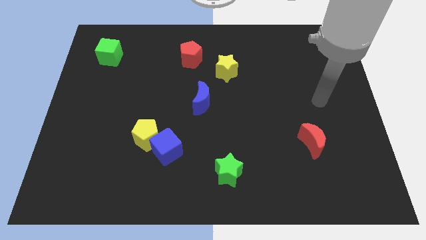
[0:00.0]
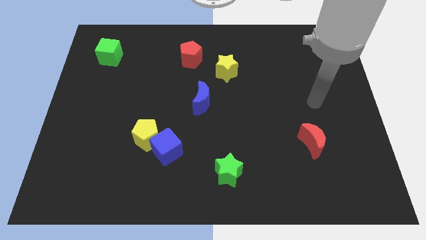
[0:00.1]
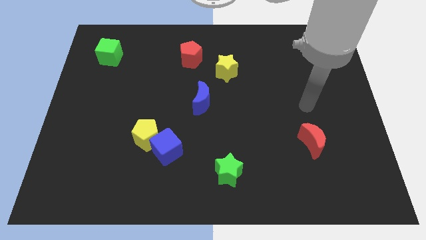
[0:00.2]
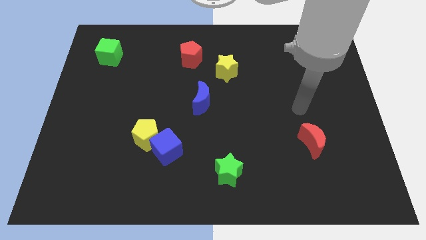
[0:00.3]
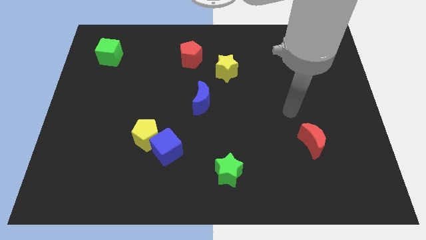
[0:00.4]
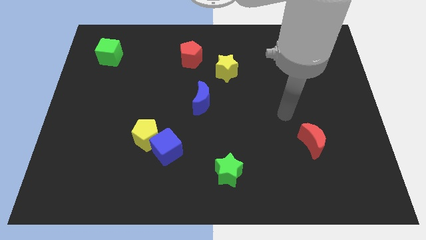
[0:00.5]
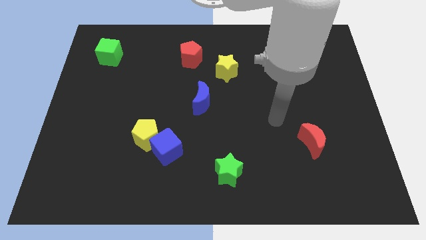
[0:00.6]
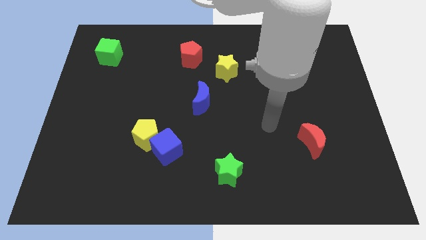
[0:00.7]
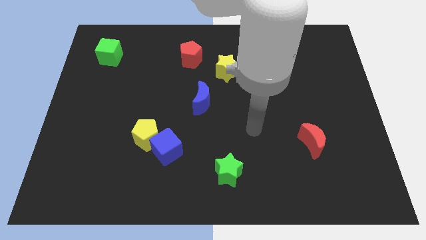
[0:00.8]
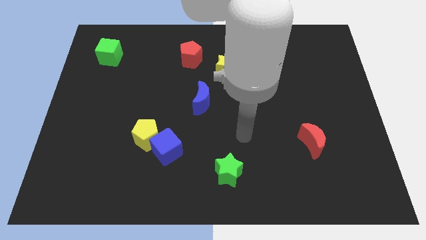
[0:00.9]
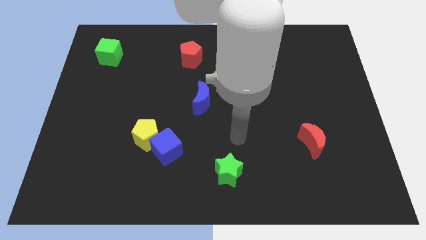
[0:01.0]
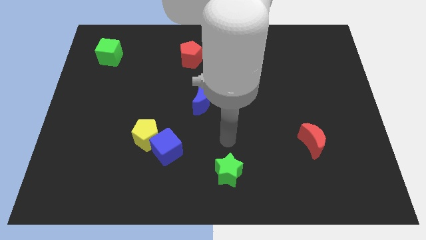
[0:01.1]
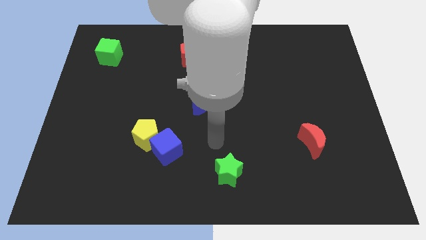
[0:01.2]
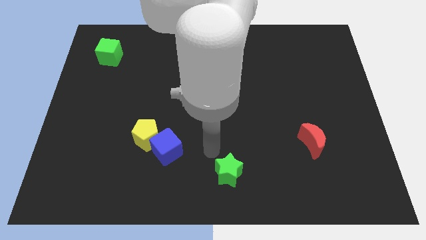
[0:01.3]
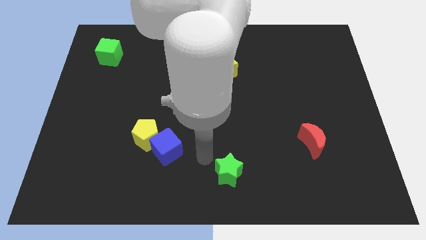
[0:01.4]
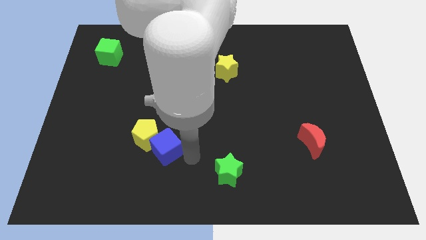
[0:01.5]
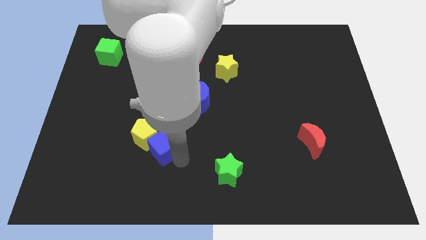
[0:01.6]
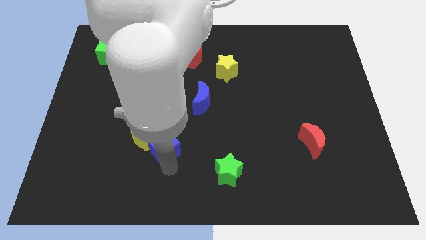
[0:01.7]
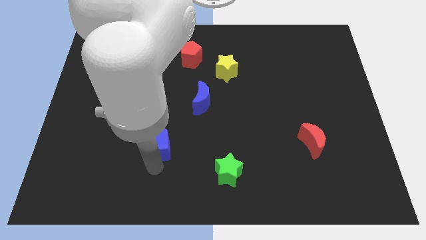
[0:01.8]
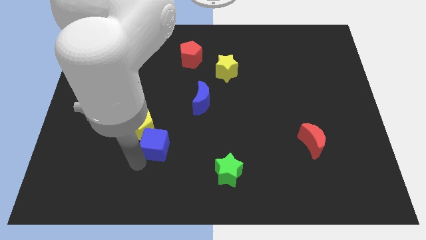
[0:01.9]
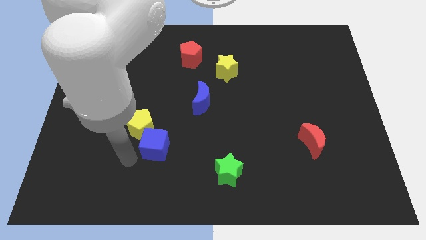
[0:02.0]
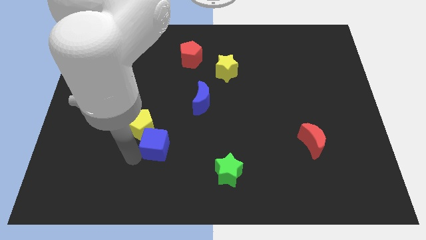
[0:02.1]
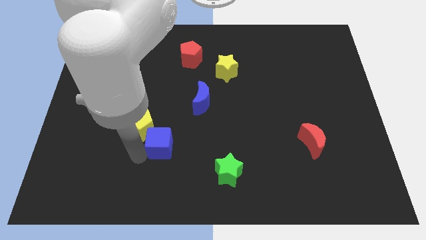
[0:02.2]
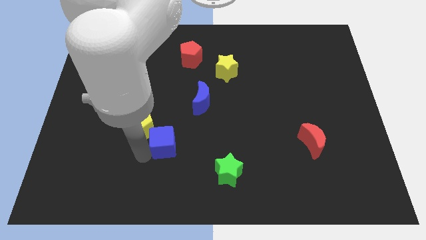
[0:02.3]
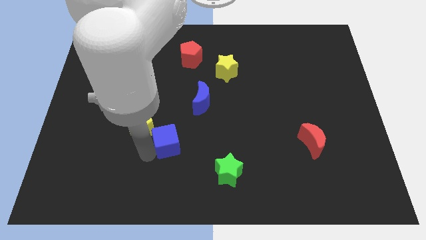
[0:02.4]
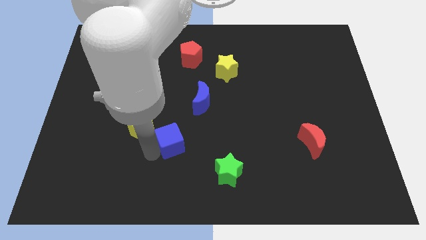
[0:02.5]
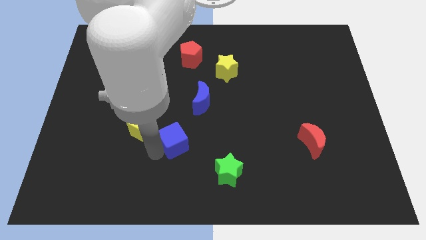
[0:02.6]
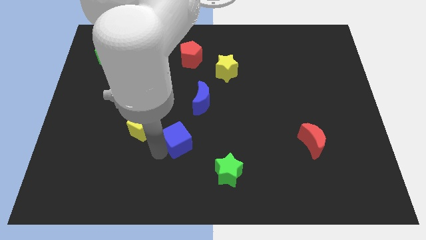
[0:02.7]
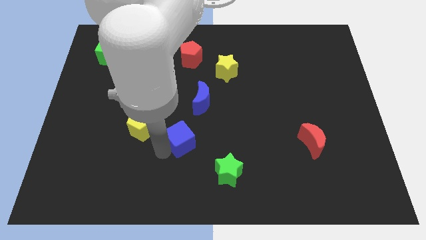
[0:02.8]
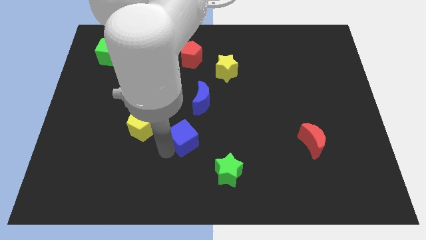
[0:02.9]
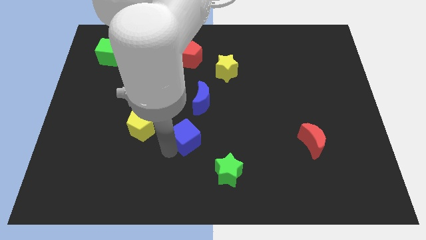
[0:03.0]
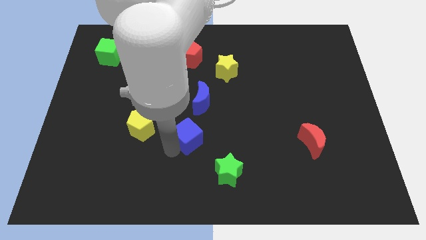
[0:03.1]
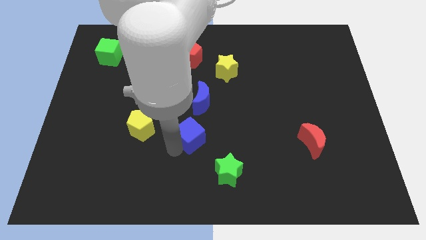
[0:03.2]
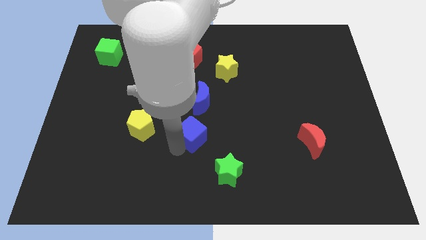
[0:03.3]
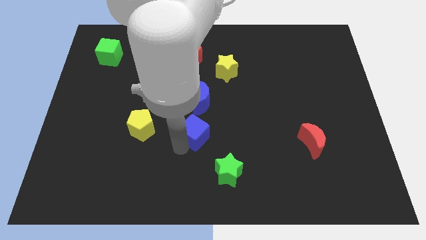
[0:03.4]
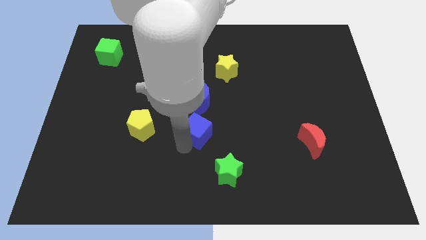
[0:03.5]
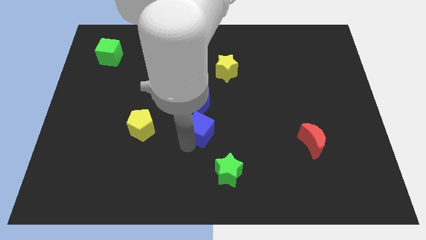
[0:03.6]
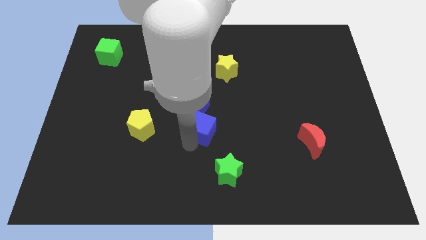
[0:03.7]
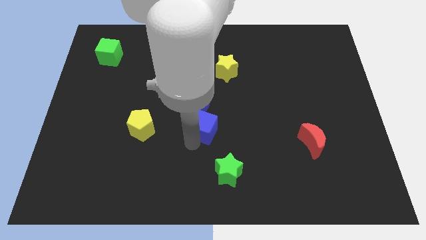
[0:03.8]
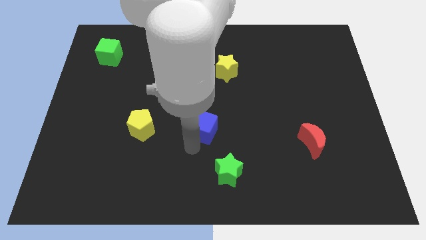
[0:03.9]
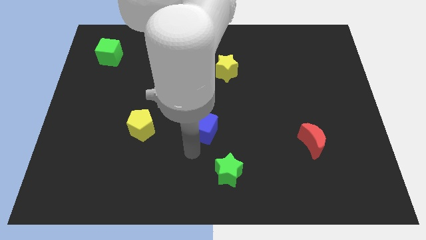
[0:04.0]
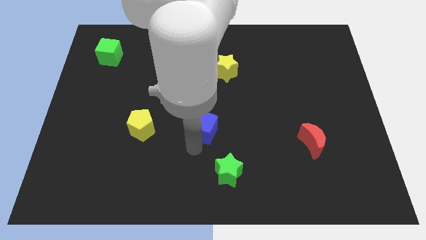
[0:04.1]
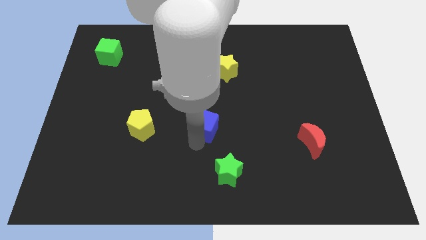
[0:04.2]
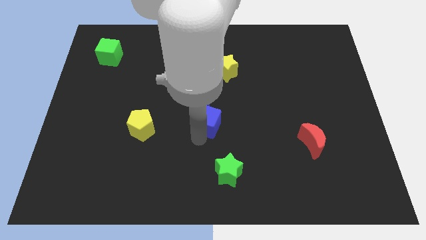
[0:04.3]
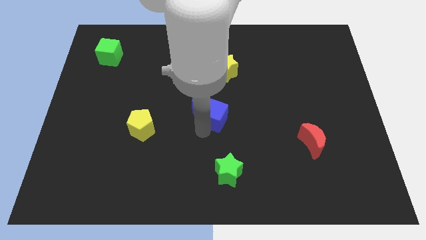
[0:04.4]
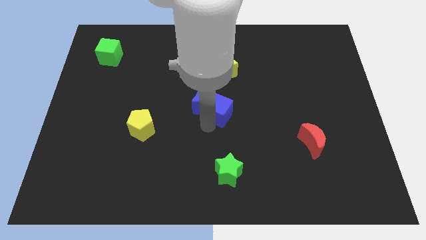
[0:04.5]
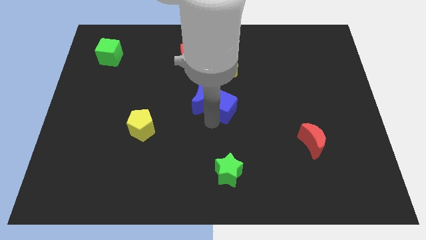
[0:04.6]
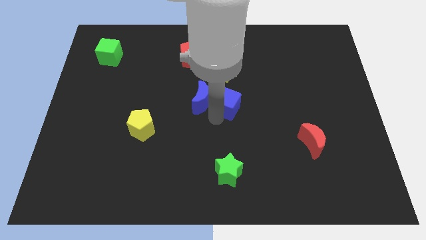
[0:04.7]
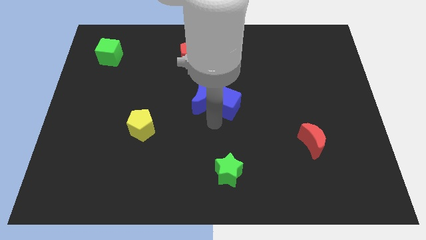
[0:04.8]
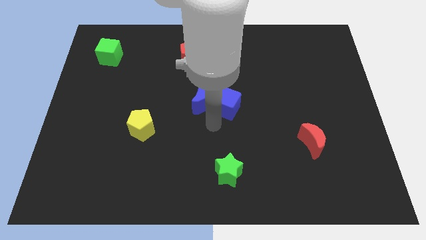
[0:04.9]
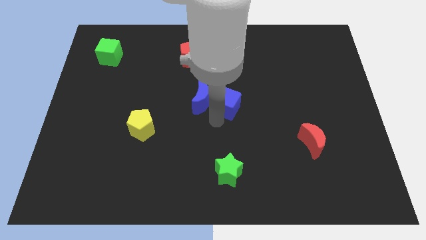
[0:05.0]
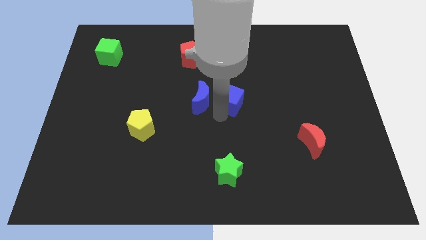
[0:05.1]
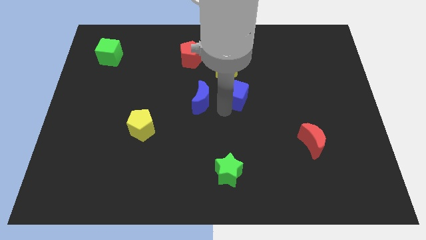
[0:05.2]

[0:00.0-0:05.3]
move the blue cube upwards and then right

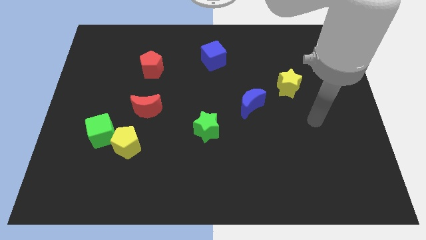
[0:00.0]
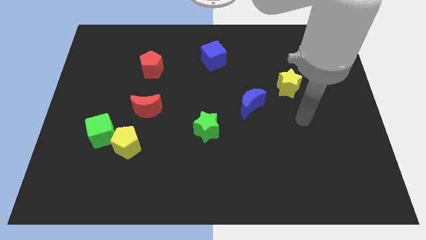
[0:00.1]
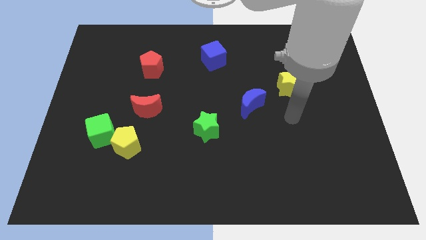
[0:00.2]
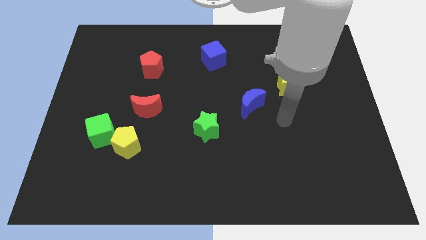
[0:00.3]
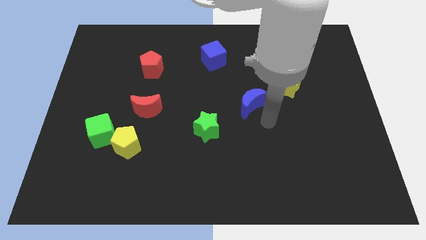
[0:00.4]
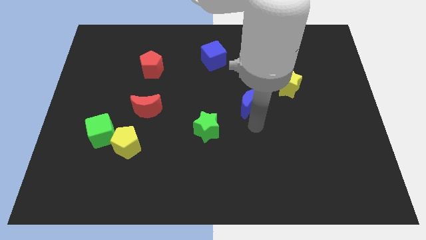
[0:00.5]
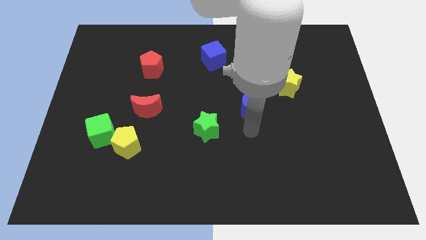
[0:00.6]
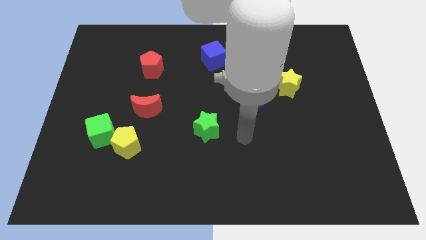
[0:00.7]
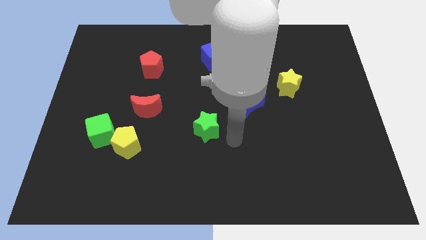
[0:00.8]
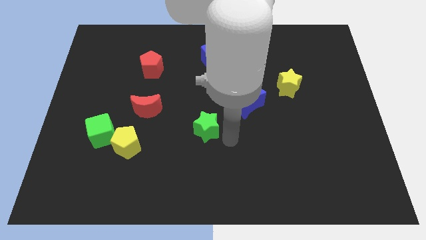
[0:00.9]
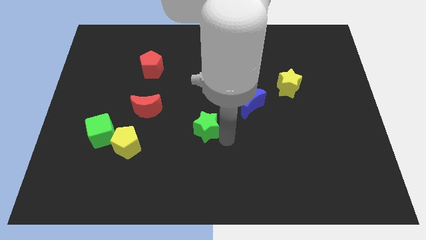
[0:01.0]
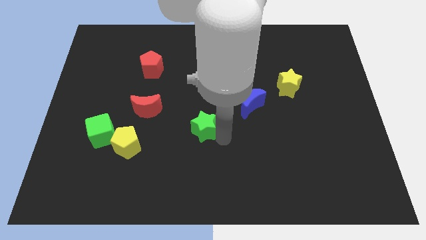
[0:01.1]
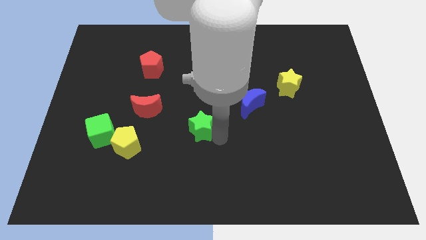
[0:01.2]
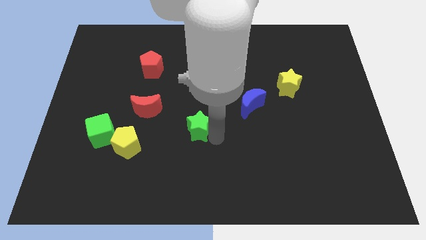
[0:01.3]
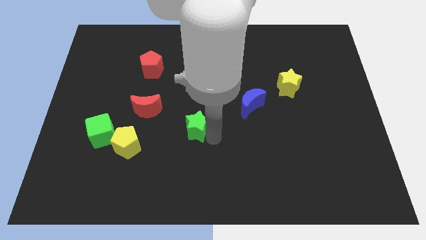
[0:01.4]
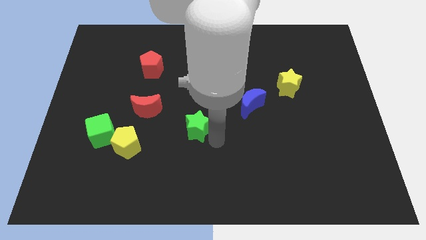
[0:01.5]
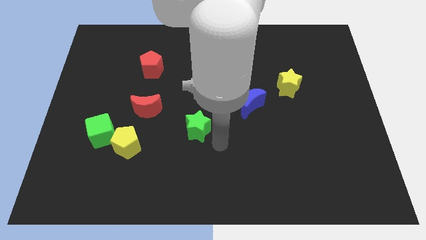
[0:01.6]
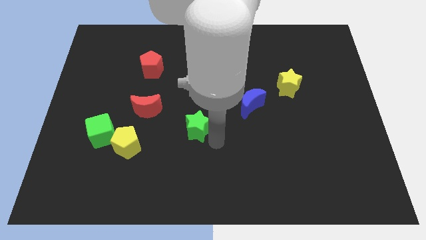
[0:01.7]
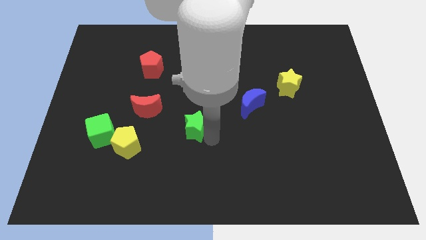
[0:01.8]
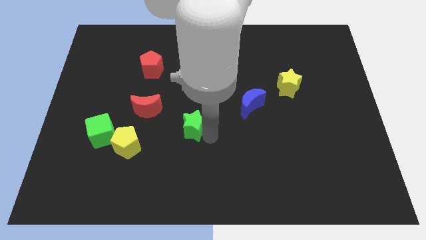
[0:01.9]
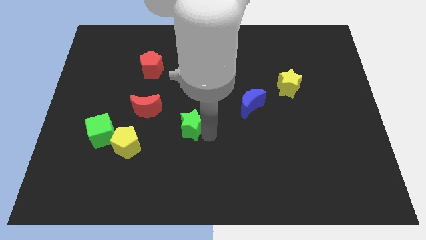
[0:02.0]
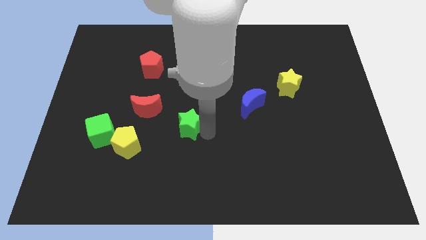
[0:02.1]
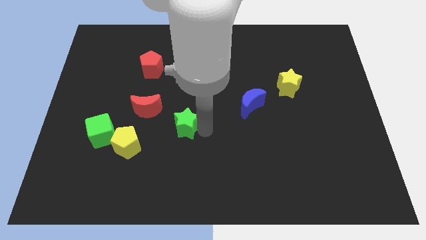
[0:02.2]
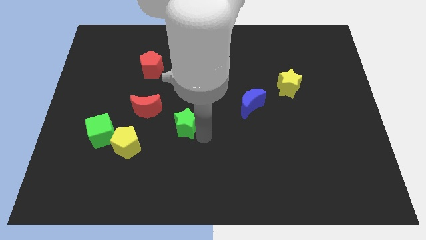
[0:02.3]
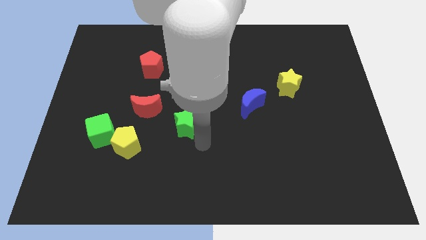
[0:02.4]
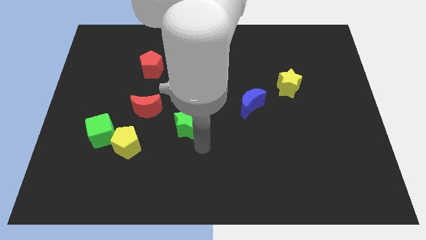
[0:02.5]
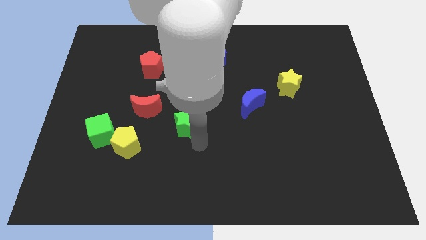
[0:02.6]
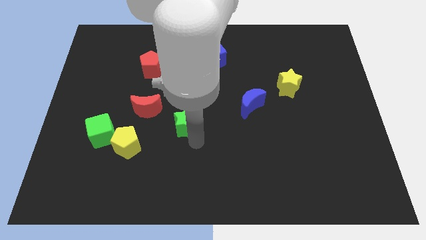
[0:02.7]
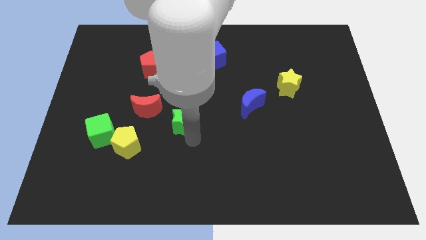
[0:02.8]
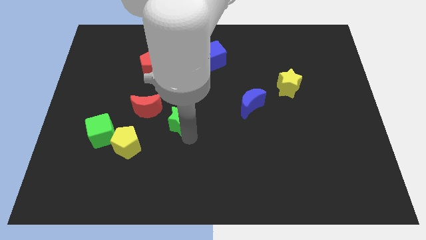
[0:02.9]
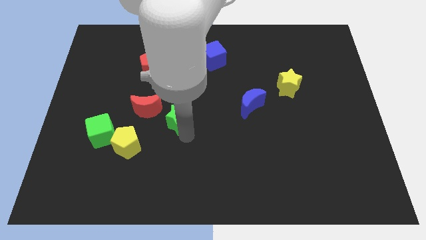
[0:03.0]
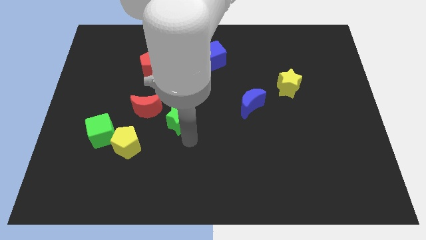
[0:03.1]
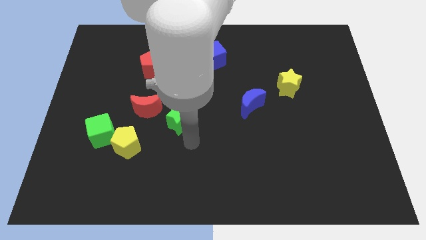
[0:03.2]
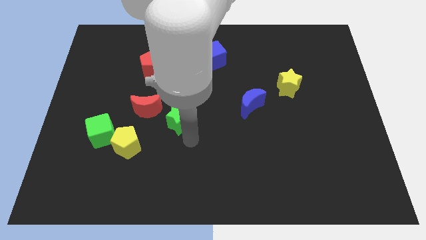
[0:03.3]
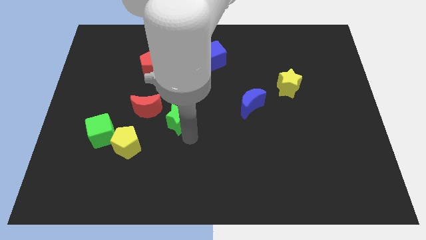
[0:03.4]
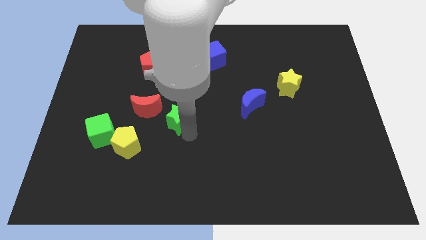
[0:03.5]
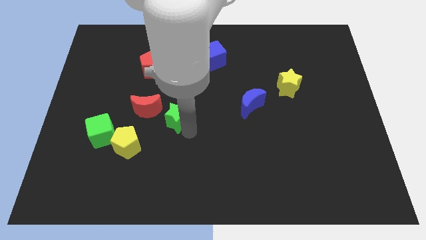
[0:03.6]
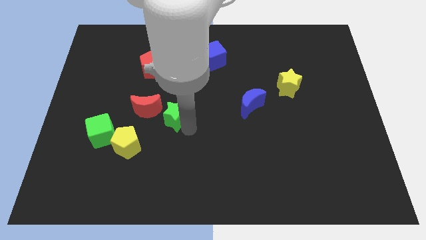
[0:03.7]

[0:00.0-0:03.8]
slide the green star a bit diagonally upwards and left
